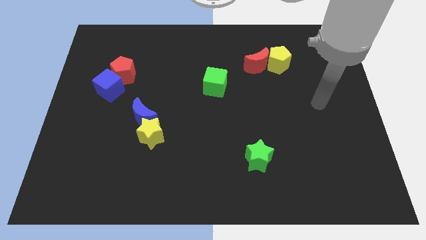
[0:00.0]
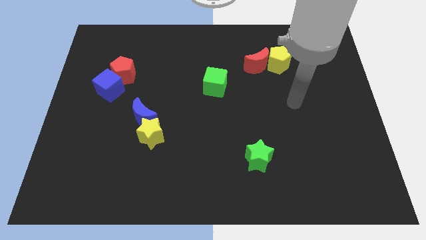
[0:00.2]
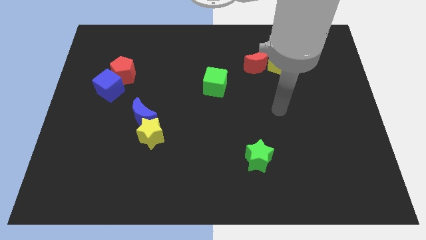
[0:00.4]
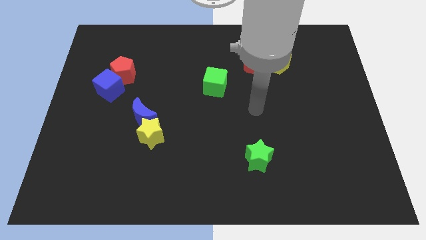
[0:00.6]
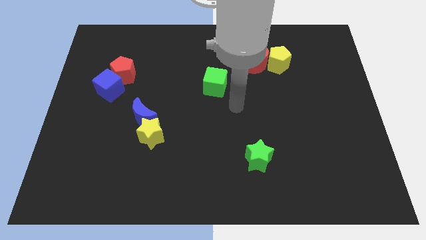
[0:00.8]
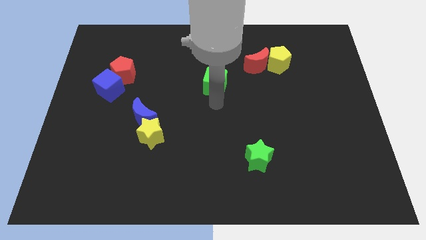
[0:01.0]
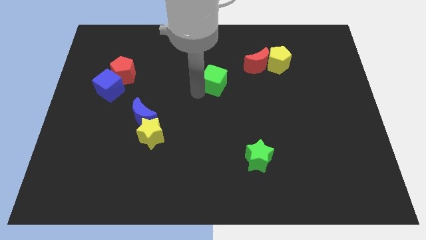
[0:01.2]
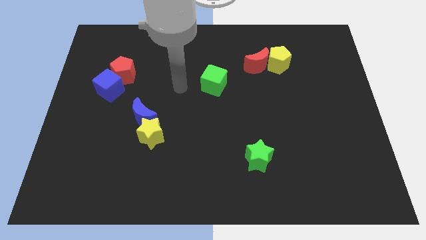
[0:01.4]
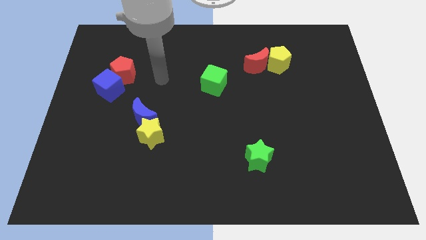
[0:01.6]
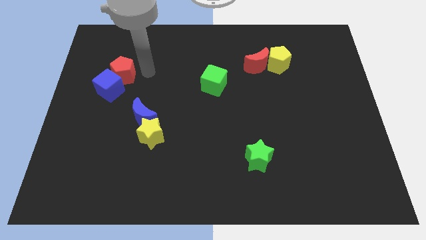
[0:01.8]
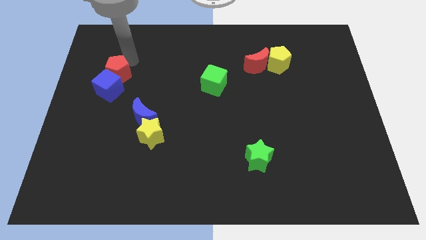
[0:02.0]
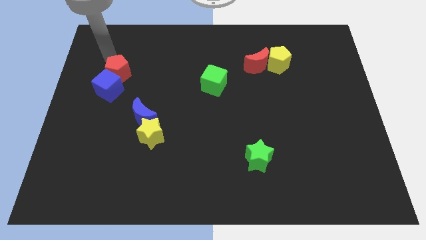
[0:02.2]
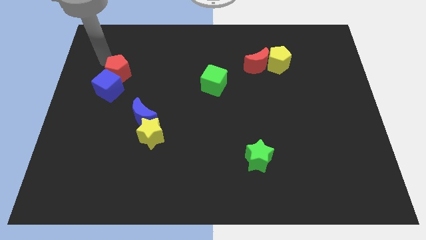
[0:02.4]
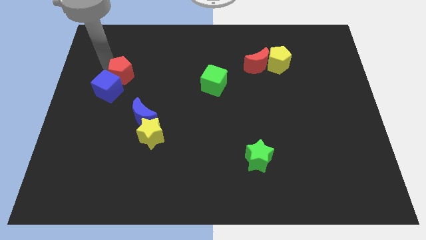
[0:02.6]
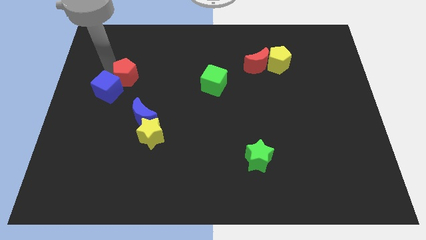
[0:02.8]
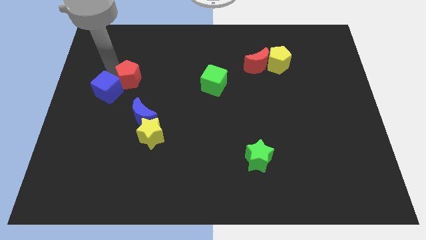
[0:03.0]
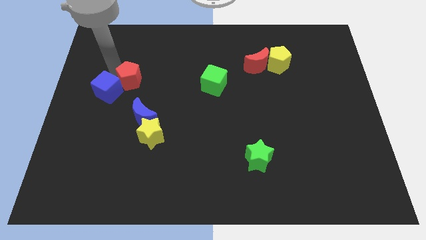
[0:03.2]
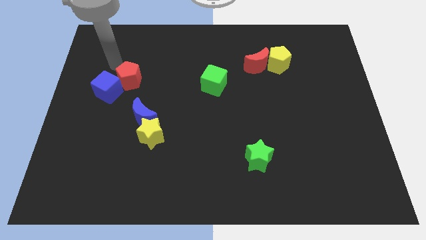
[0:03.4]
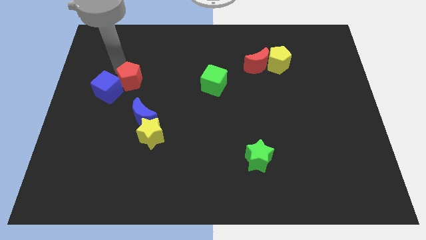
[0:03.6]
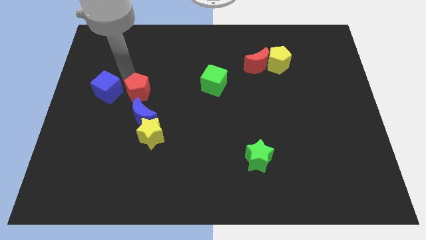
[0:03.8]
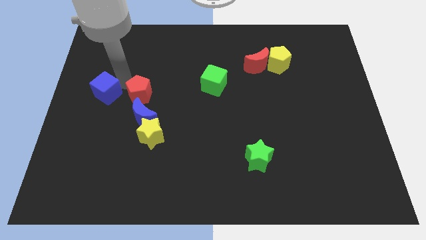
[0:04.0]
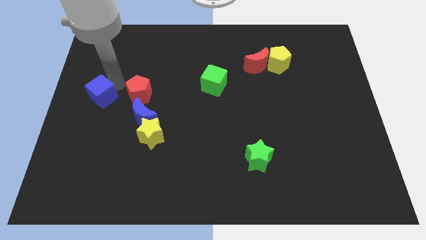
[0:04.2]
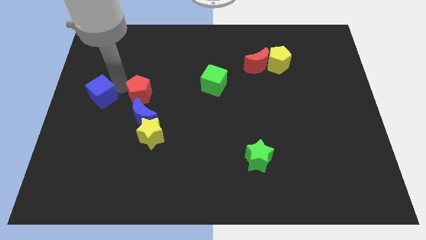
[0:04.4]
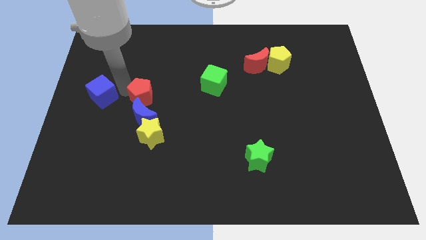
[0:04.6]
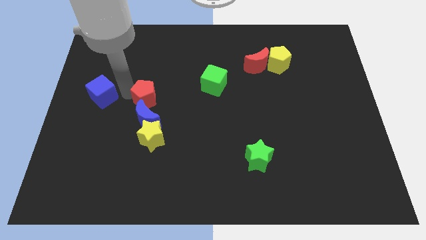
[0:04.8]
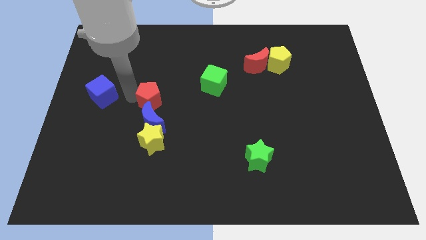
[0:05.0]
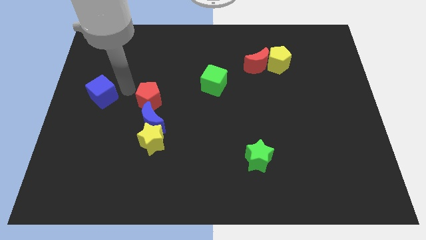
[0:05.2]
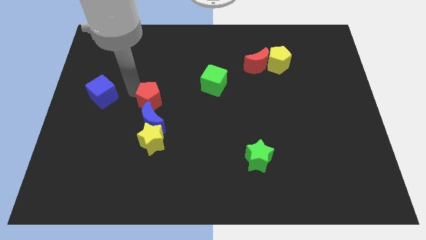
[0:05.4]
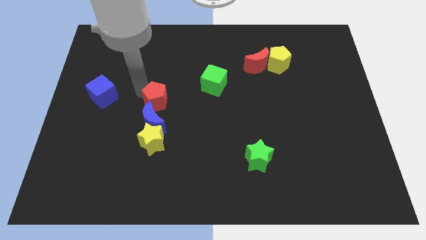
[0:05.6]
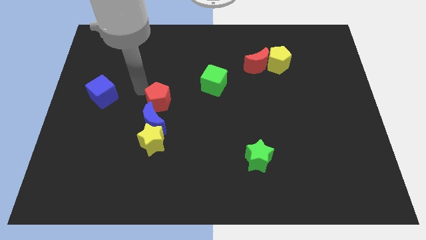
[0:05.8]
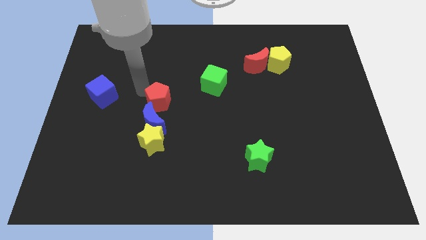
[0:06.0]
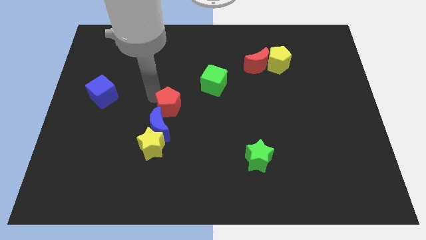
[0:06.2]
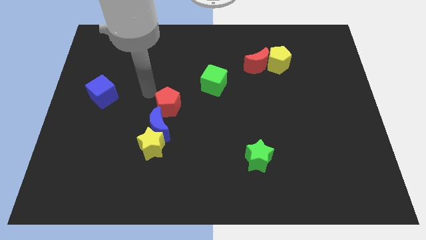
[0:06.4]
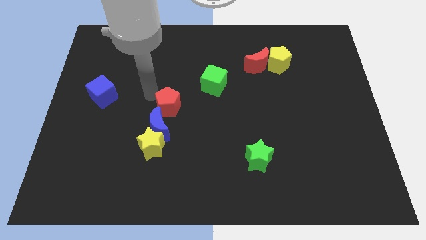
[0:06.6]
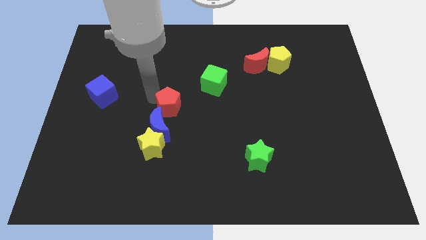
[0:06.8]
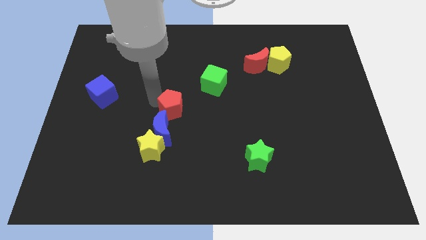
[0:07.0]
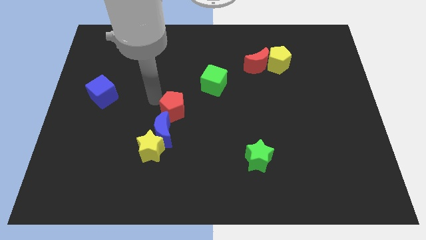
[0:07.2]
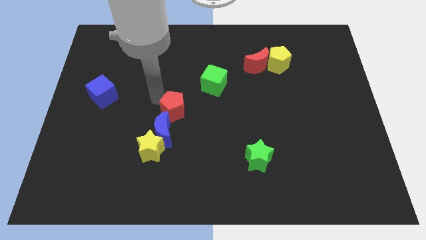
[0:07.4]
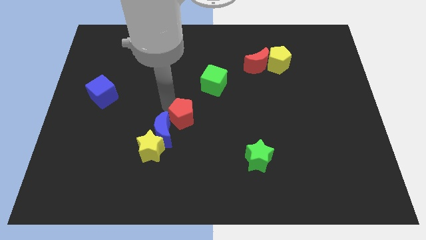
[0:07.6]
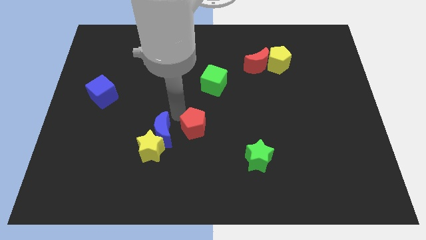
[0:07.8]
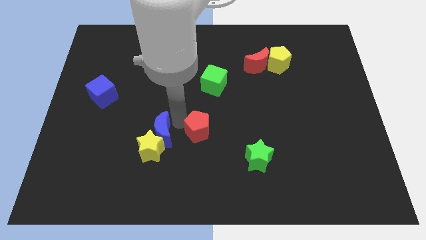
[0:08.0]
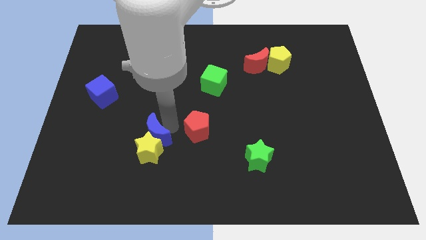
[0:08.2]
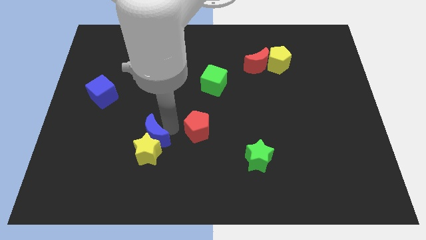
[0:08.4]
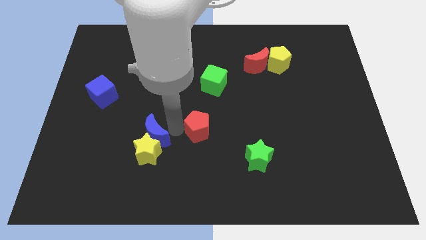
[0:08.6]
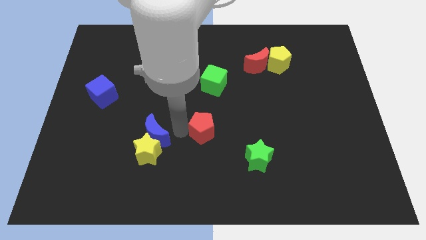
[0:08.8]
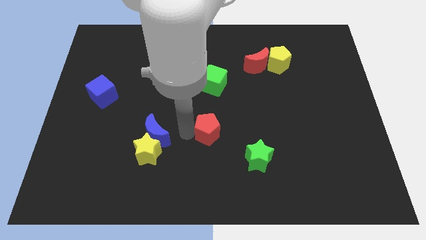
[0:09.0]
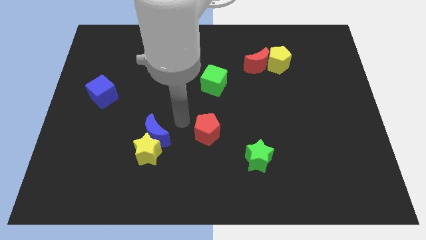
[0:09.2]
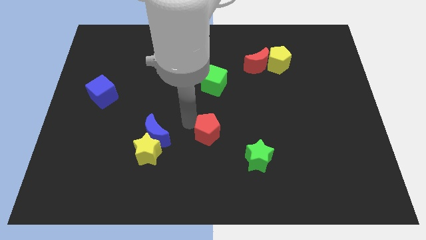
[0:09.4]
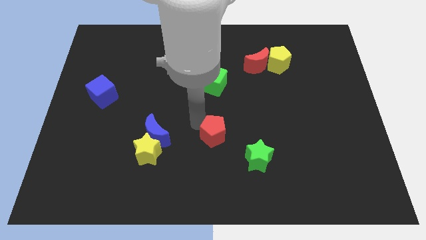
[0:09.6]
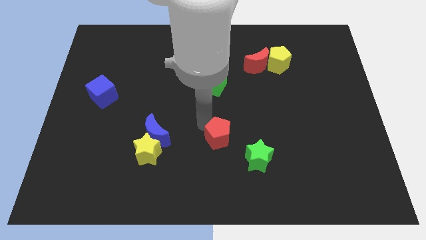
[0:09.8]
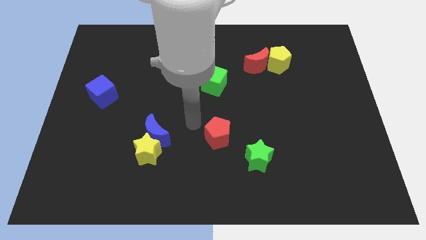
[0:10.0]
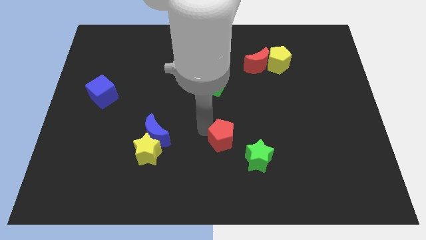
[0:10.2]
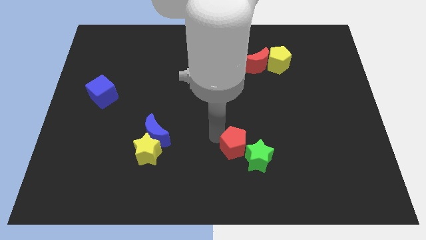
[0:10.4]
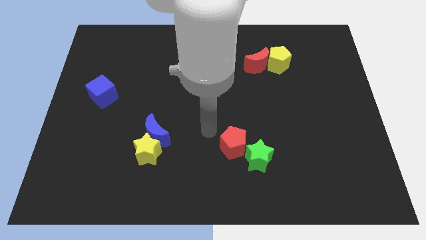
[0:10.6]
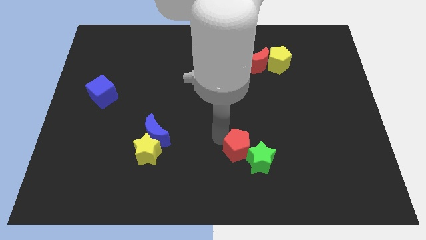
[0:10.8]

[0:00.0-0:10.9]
move the red pentagon to the green star

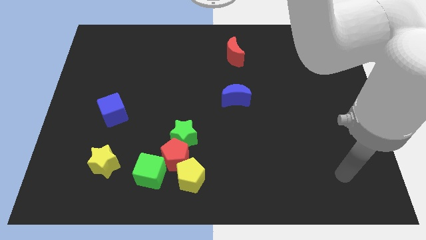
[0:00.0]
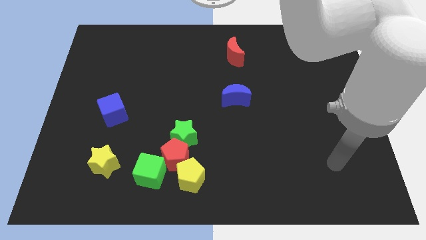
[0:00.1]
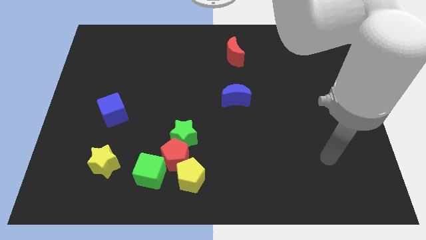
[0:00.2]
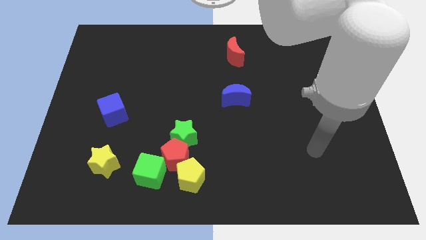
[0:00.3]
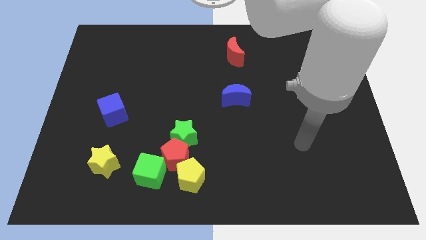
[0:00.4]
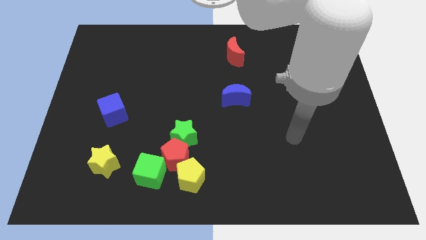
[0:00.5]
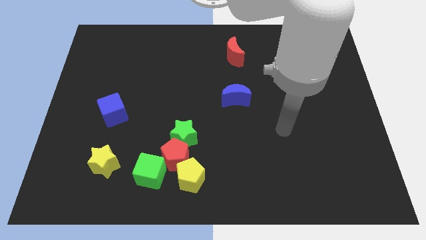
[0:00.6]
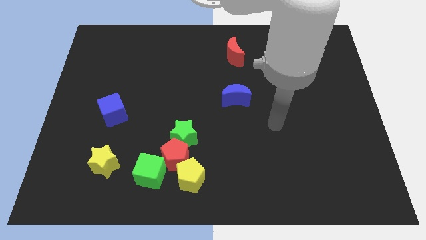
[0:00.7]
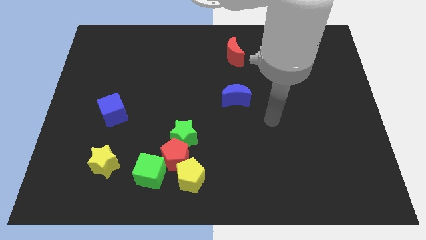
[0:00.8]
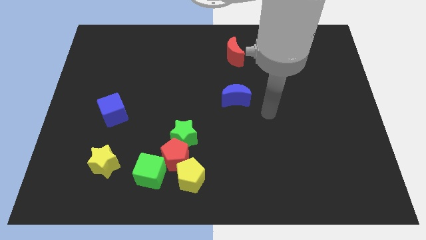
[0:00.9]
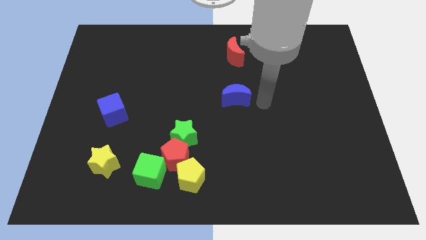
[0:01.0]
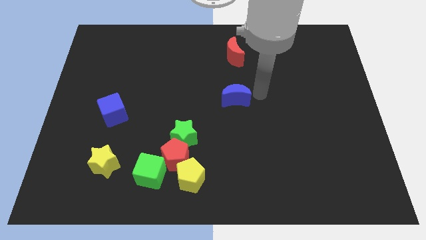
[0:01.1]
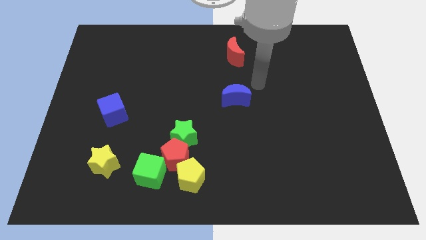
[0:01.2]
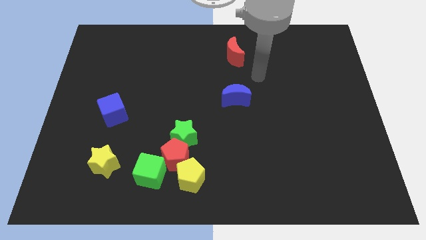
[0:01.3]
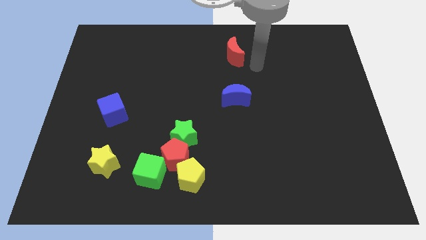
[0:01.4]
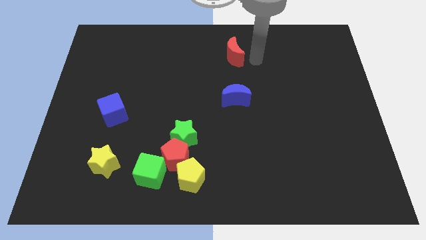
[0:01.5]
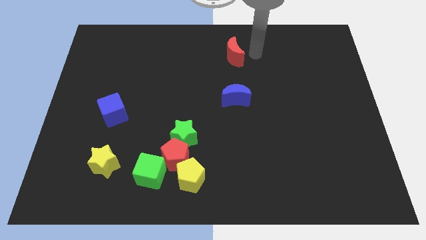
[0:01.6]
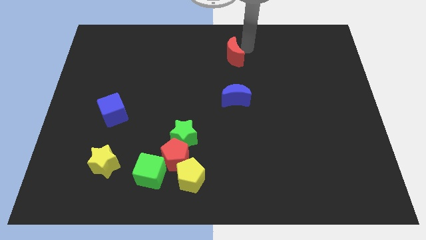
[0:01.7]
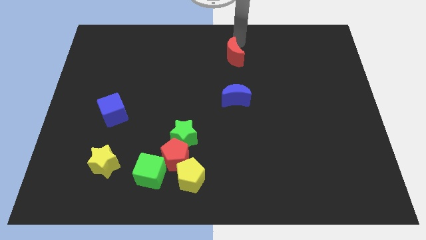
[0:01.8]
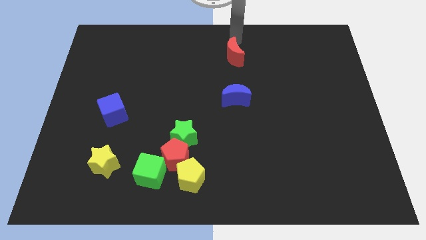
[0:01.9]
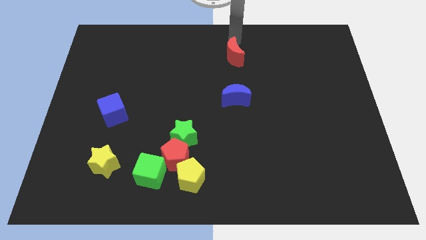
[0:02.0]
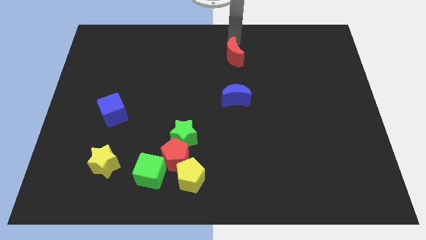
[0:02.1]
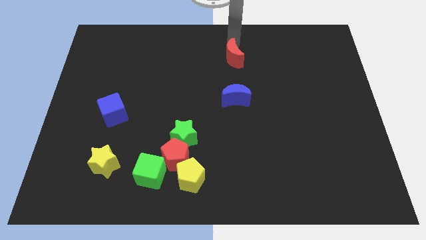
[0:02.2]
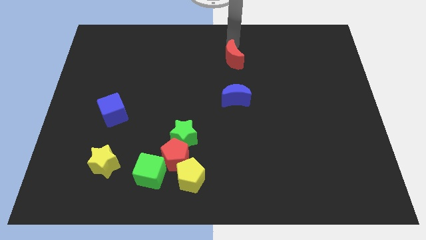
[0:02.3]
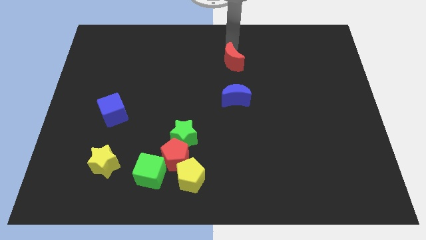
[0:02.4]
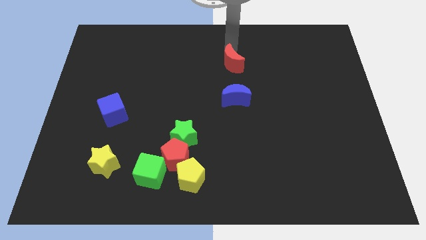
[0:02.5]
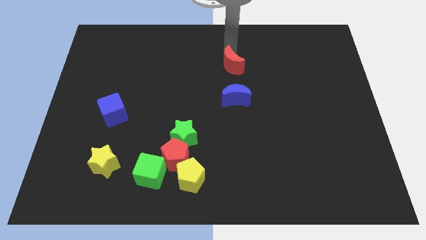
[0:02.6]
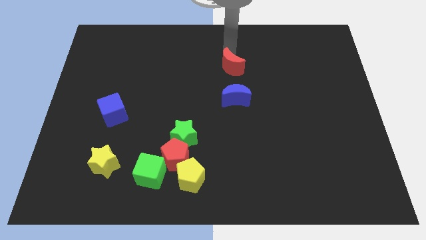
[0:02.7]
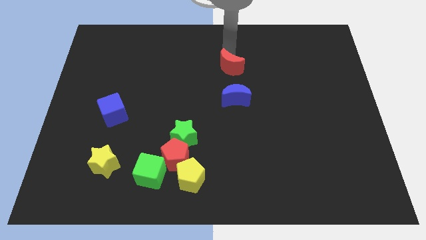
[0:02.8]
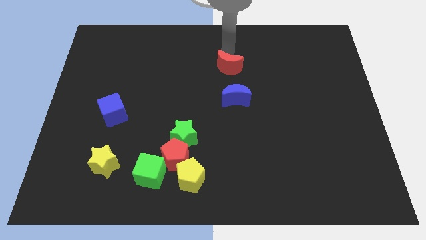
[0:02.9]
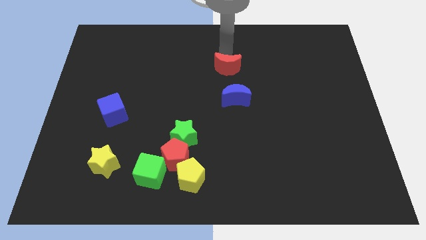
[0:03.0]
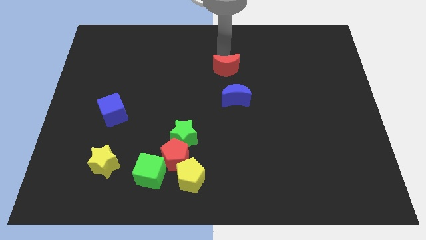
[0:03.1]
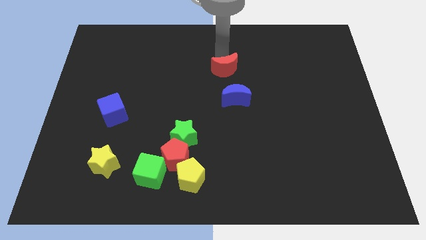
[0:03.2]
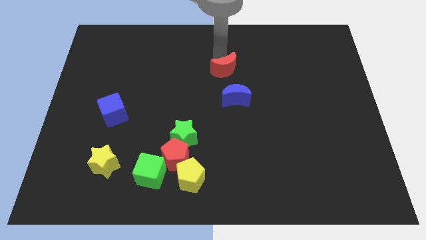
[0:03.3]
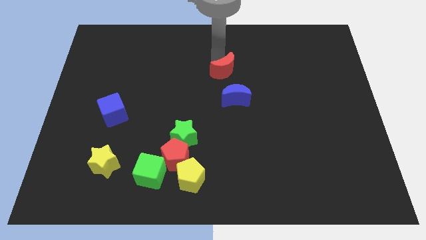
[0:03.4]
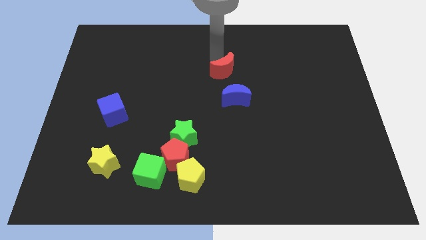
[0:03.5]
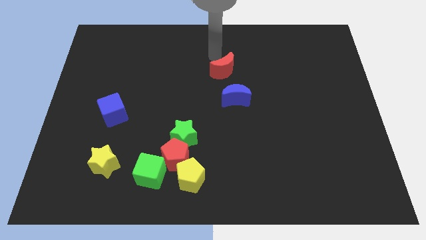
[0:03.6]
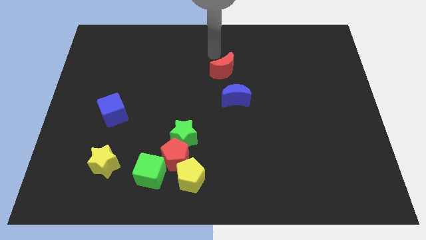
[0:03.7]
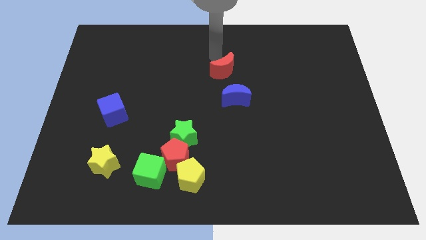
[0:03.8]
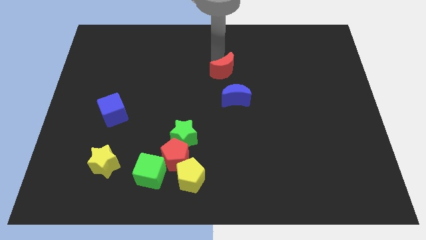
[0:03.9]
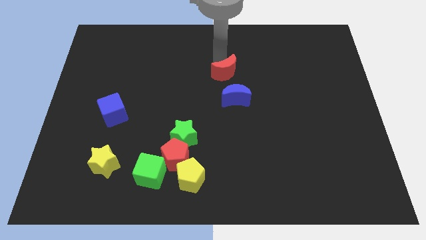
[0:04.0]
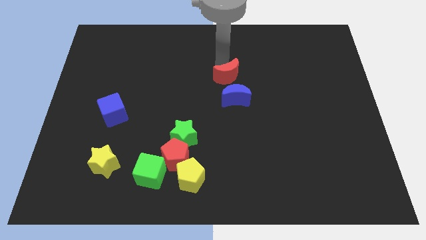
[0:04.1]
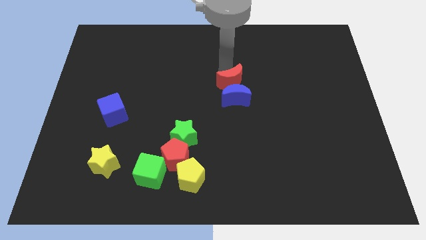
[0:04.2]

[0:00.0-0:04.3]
slide the red moon next to the blue moon
